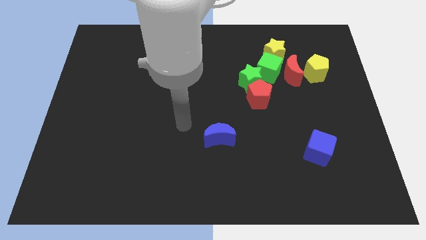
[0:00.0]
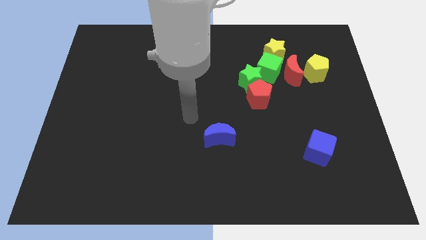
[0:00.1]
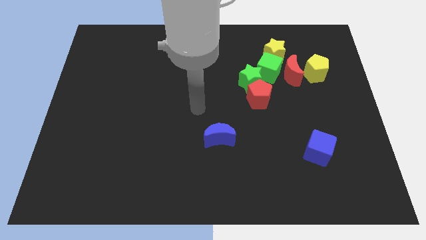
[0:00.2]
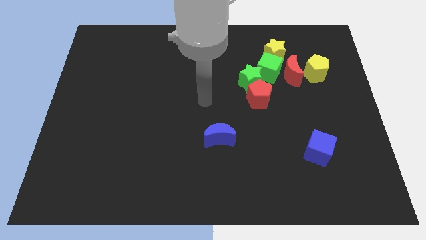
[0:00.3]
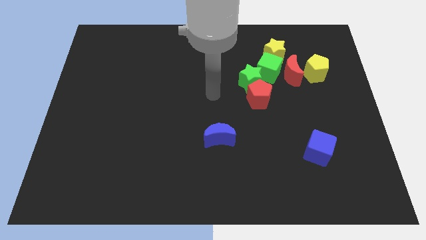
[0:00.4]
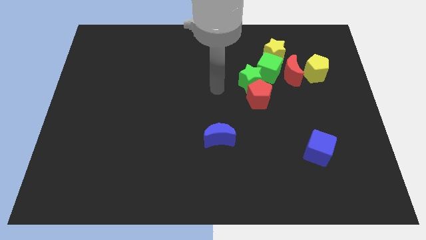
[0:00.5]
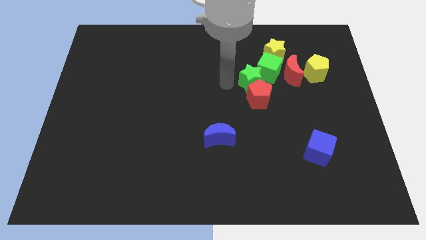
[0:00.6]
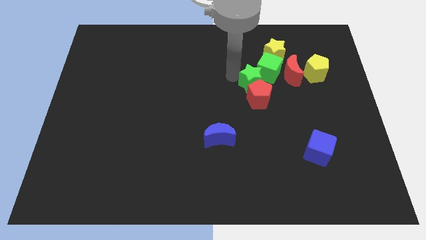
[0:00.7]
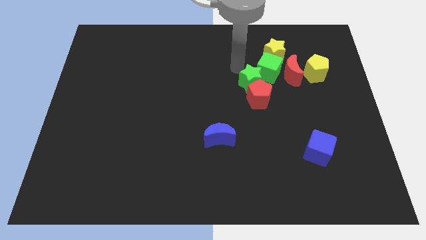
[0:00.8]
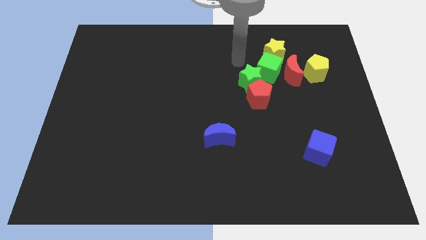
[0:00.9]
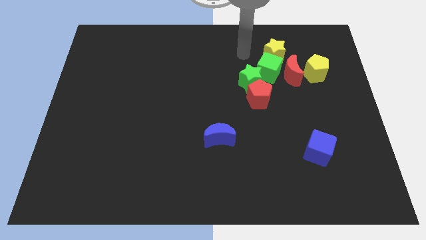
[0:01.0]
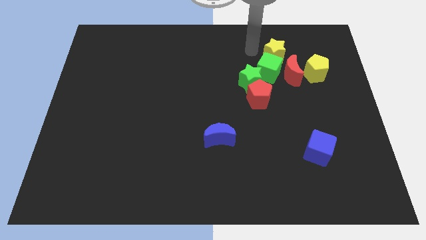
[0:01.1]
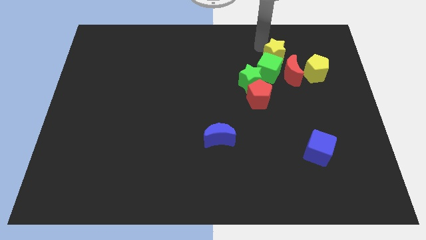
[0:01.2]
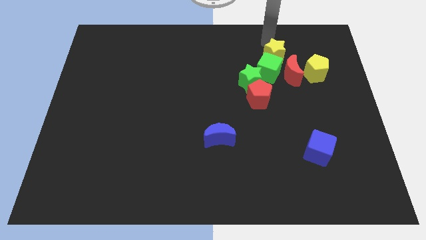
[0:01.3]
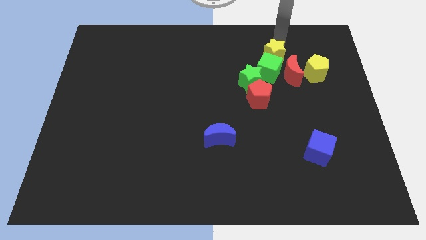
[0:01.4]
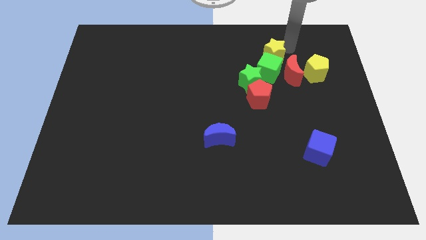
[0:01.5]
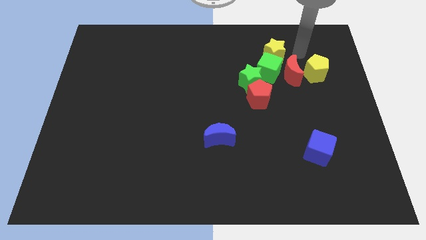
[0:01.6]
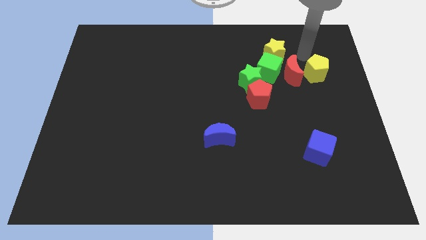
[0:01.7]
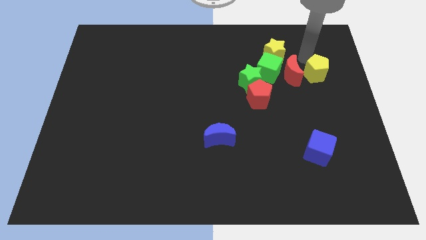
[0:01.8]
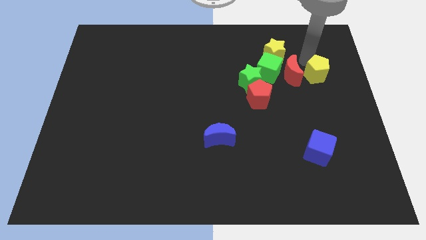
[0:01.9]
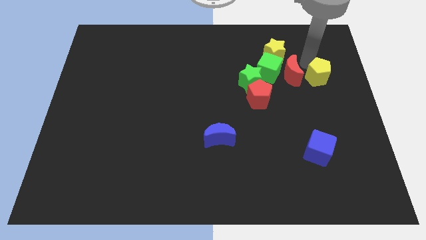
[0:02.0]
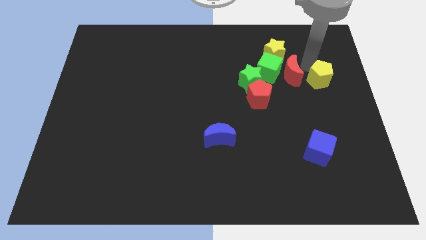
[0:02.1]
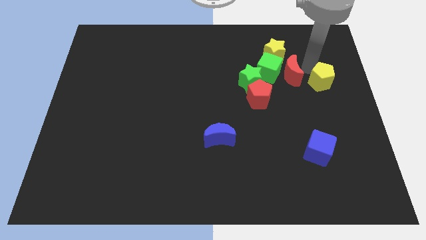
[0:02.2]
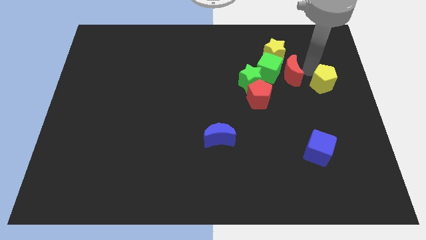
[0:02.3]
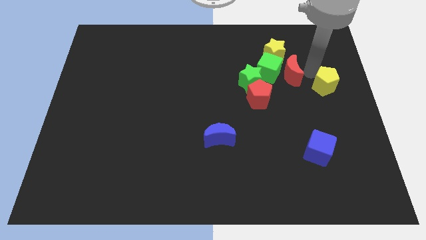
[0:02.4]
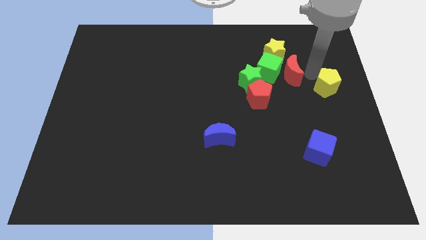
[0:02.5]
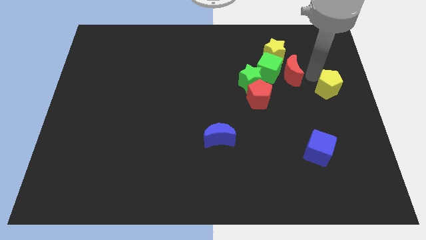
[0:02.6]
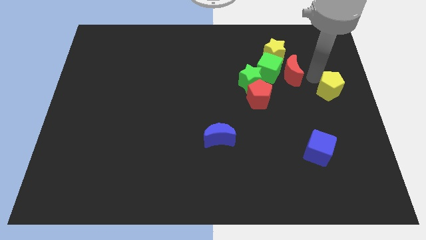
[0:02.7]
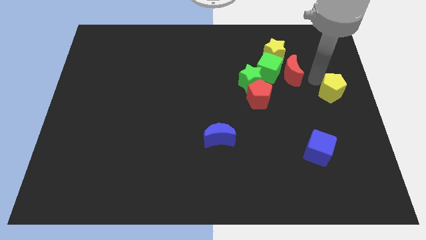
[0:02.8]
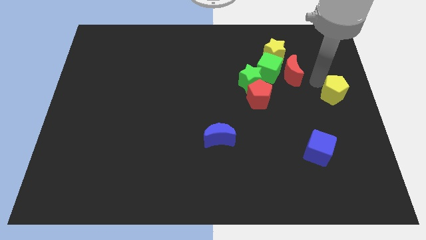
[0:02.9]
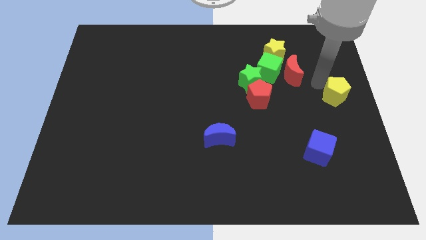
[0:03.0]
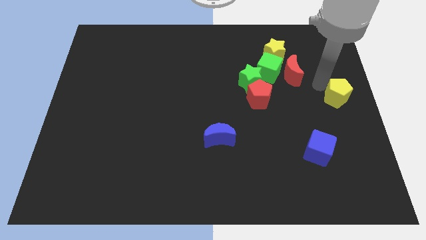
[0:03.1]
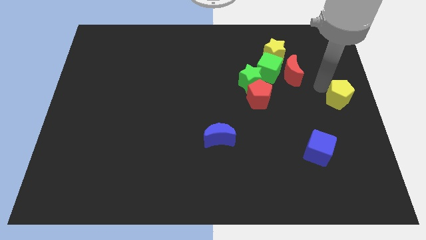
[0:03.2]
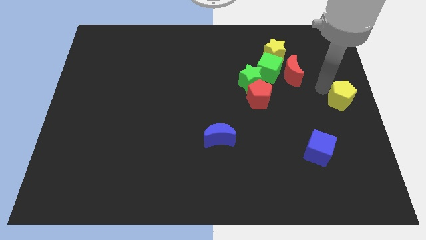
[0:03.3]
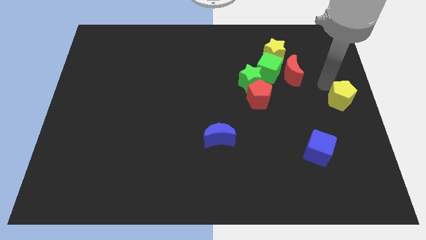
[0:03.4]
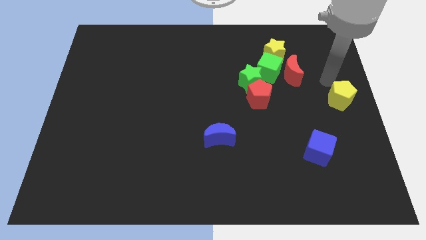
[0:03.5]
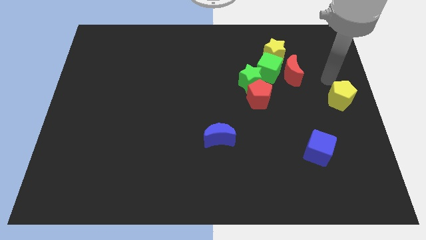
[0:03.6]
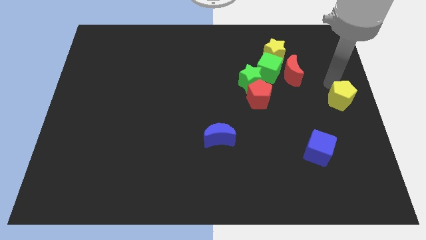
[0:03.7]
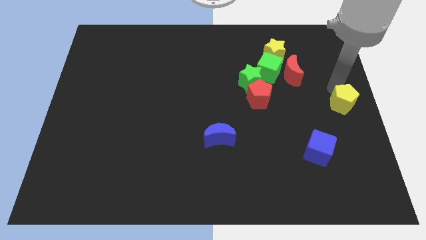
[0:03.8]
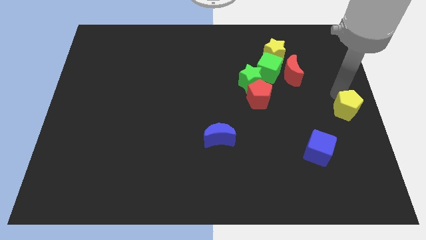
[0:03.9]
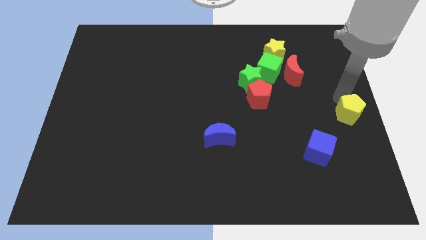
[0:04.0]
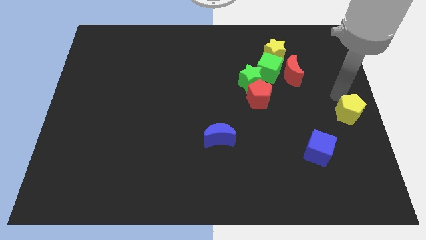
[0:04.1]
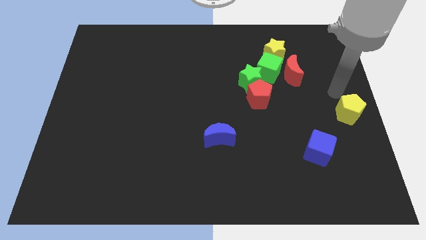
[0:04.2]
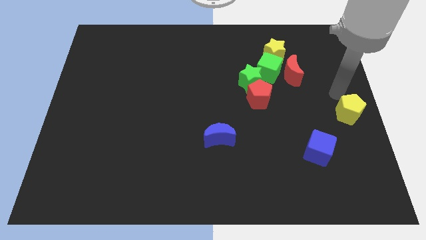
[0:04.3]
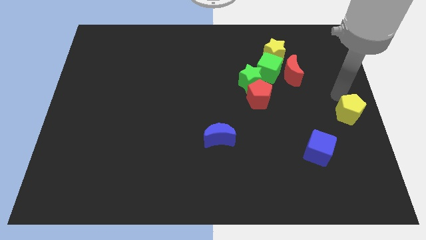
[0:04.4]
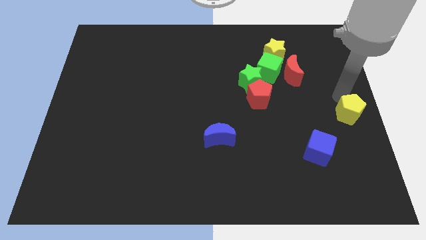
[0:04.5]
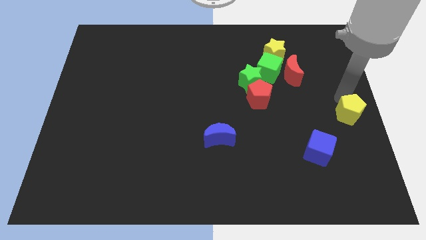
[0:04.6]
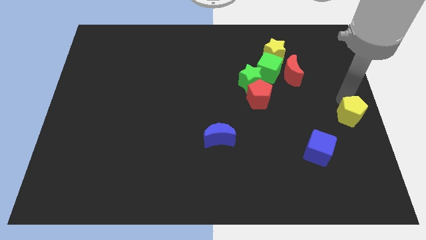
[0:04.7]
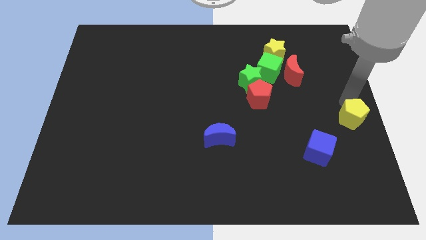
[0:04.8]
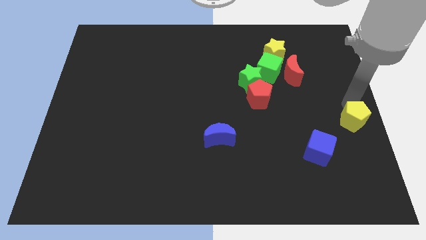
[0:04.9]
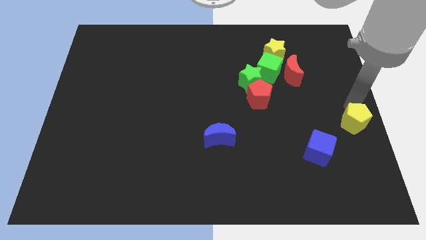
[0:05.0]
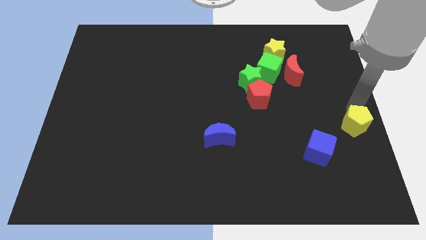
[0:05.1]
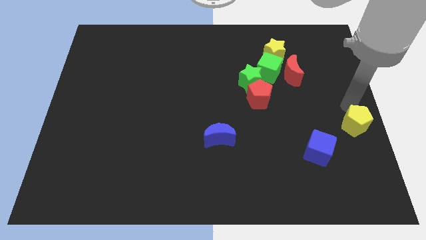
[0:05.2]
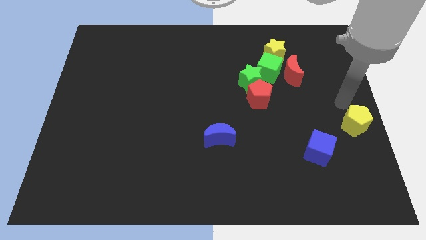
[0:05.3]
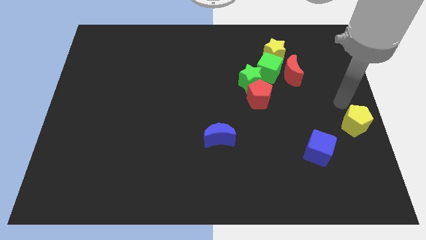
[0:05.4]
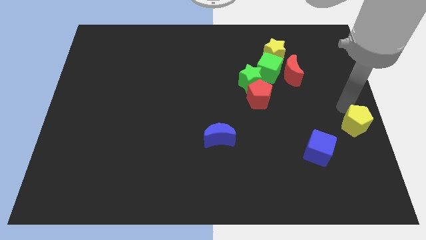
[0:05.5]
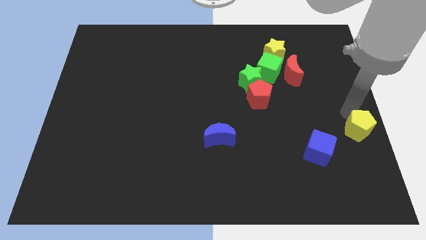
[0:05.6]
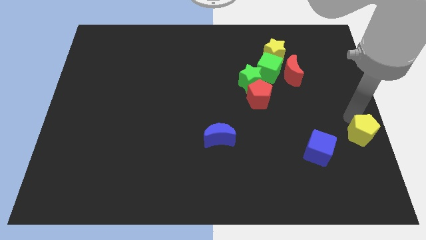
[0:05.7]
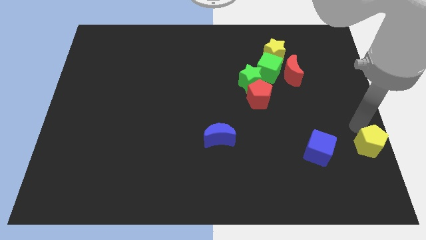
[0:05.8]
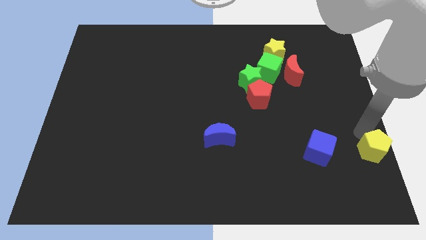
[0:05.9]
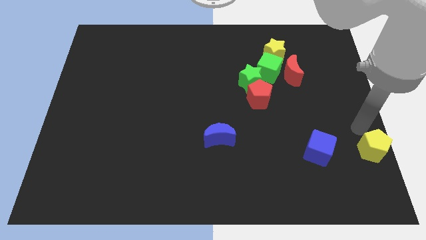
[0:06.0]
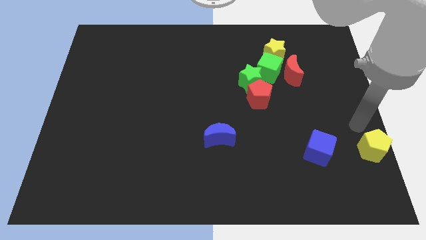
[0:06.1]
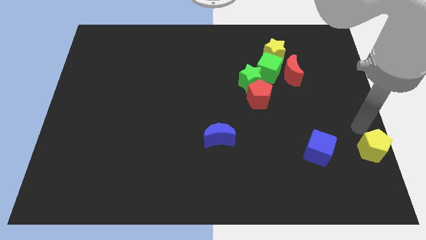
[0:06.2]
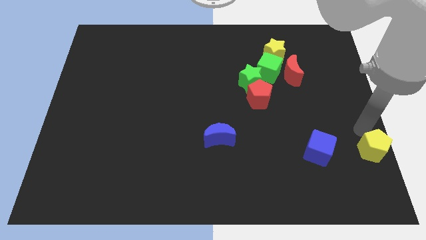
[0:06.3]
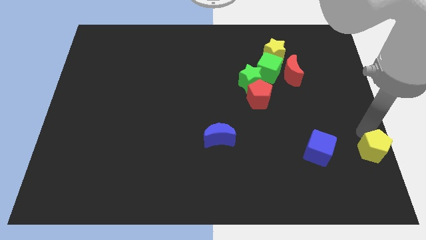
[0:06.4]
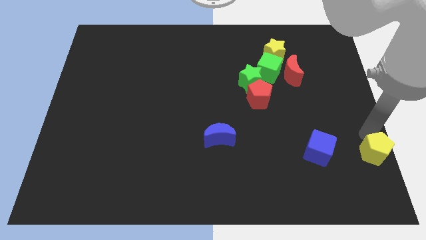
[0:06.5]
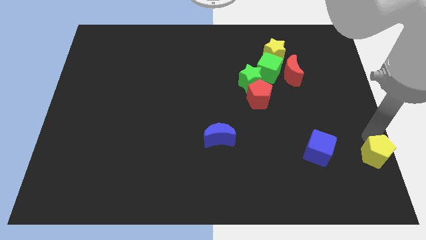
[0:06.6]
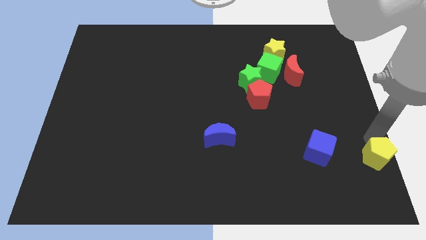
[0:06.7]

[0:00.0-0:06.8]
put the yellow pentagon to the bottom right of the board
